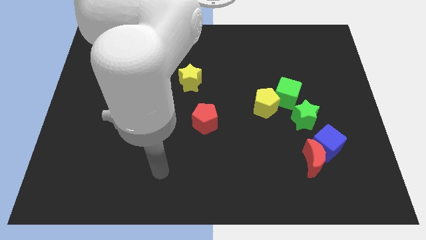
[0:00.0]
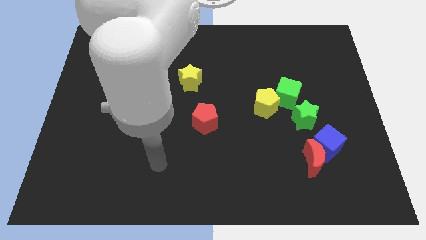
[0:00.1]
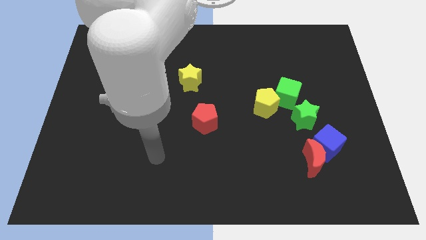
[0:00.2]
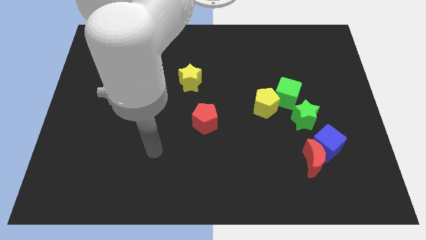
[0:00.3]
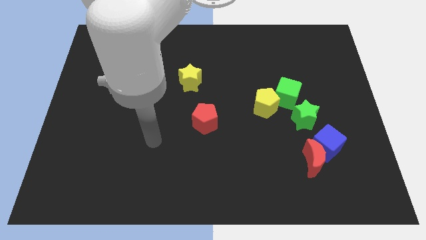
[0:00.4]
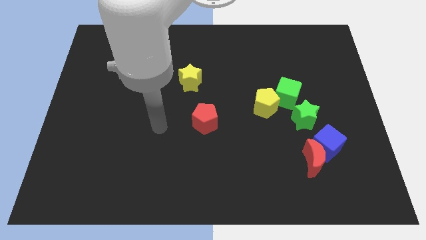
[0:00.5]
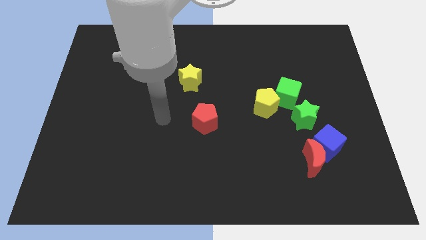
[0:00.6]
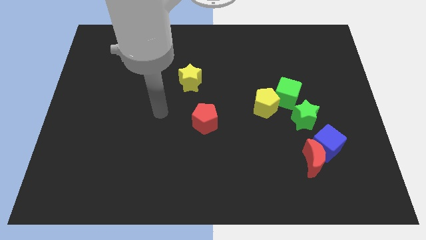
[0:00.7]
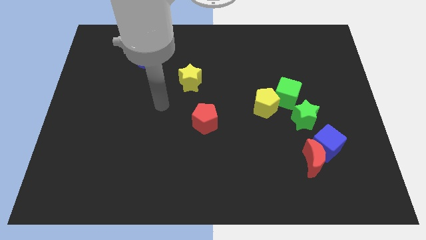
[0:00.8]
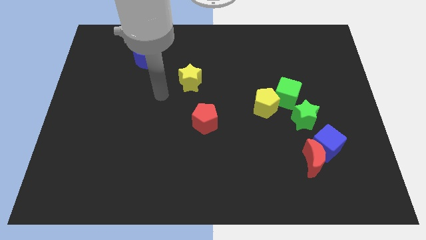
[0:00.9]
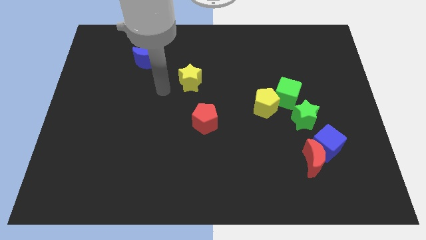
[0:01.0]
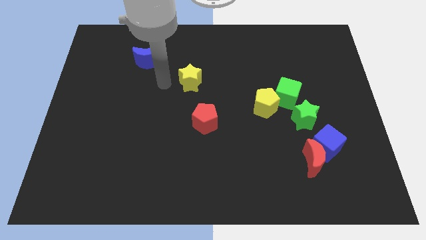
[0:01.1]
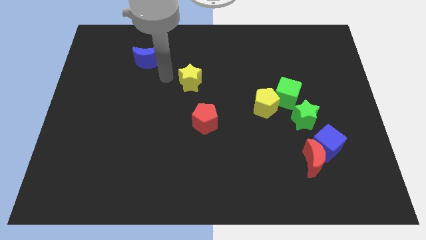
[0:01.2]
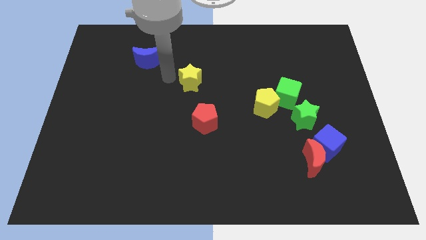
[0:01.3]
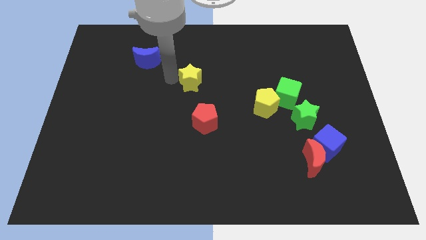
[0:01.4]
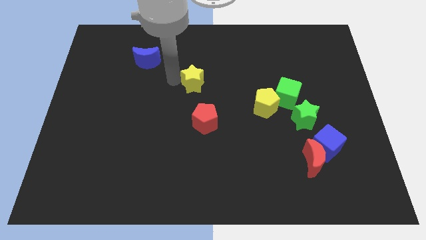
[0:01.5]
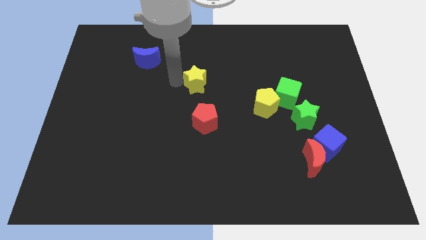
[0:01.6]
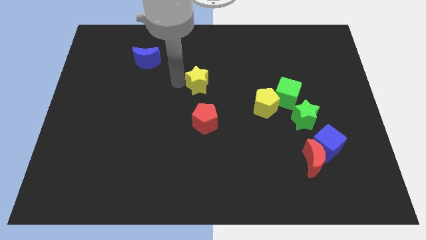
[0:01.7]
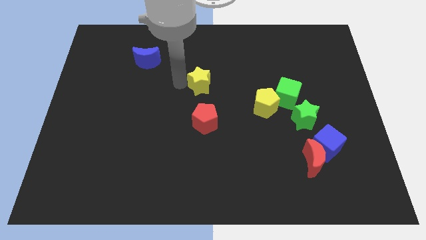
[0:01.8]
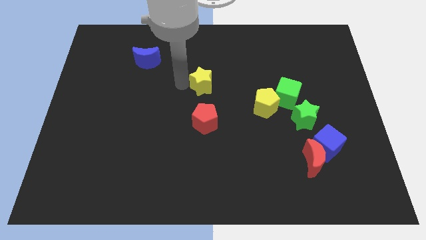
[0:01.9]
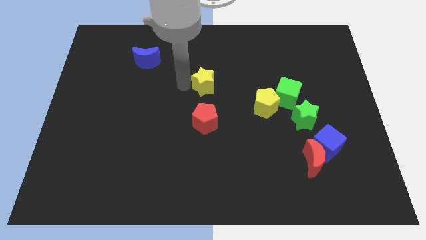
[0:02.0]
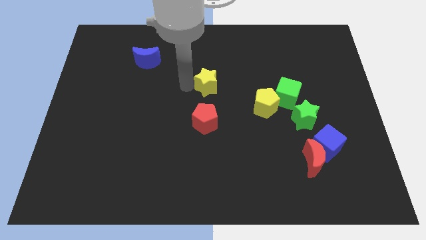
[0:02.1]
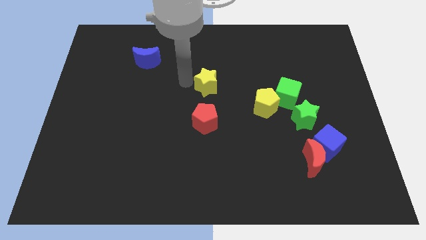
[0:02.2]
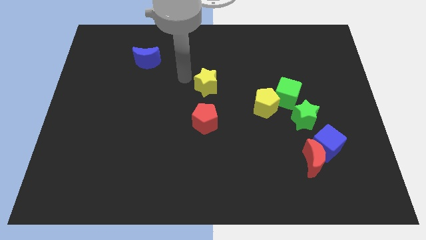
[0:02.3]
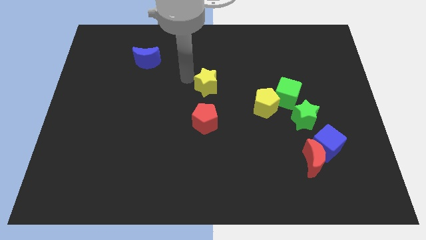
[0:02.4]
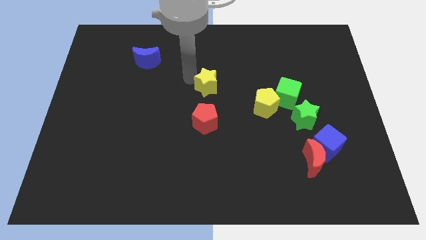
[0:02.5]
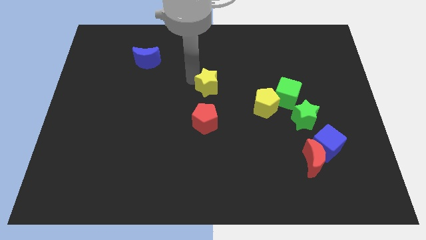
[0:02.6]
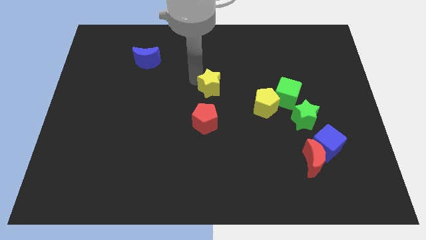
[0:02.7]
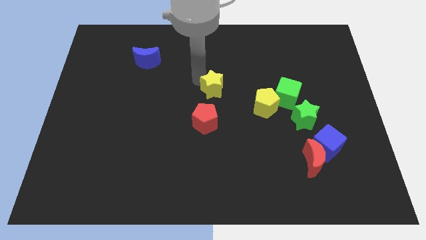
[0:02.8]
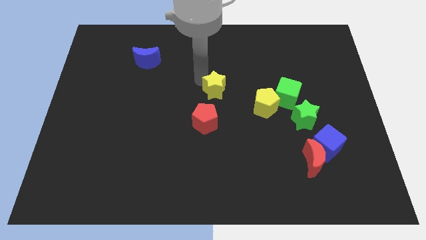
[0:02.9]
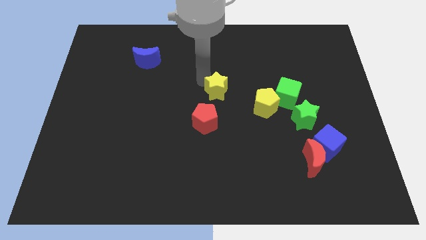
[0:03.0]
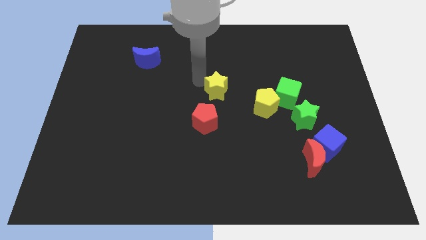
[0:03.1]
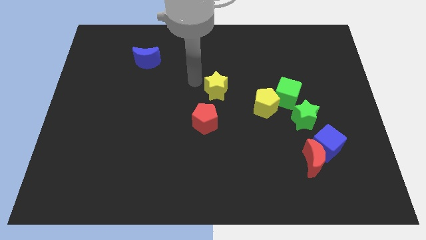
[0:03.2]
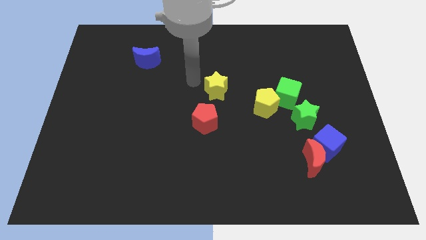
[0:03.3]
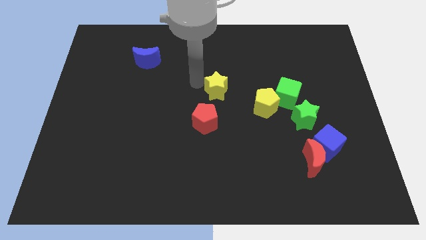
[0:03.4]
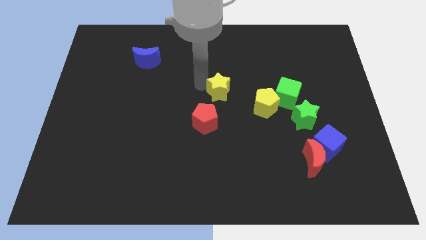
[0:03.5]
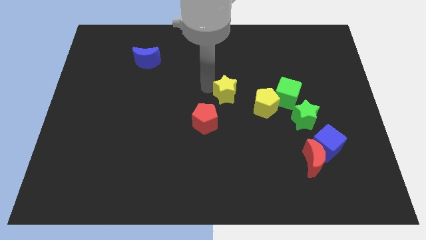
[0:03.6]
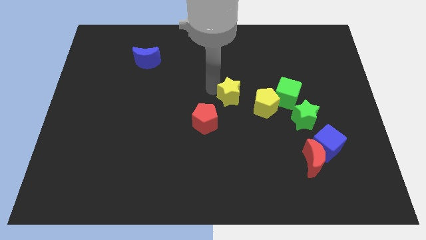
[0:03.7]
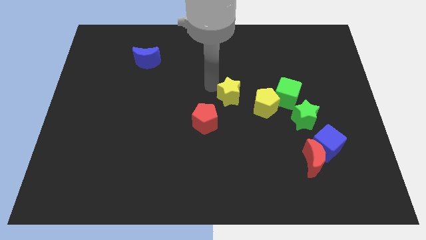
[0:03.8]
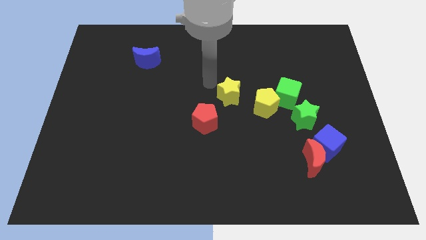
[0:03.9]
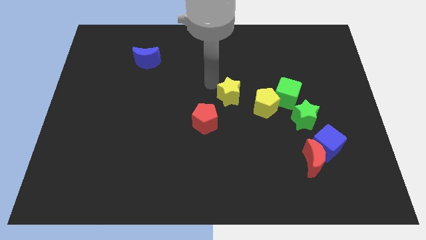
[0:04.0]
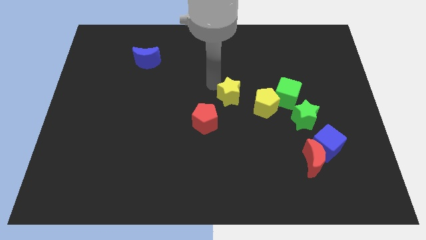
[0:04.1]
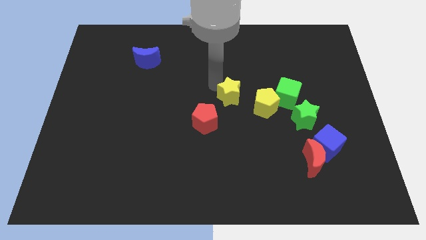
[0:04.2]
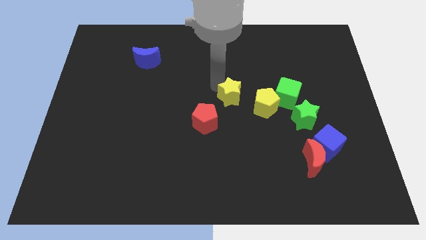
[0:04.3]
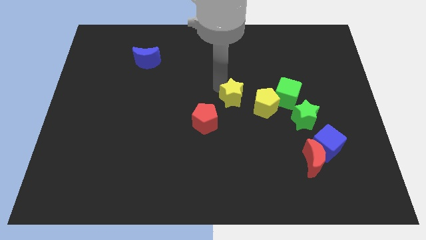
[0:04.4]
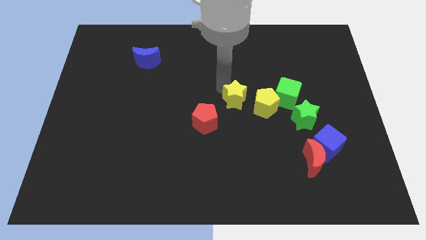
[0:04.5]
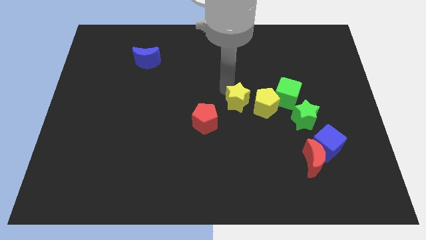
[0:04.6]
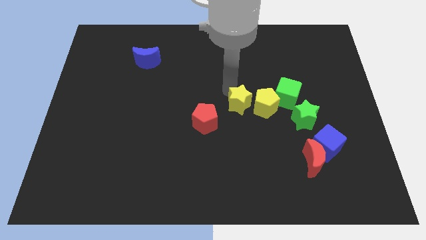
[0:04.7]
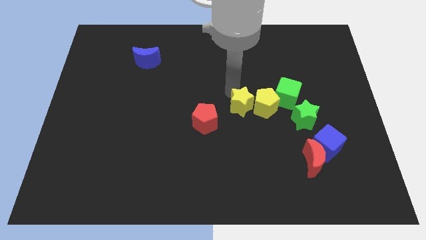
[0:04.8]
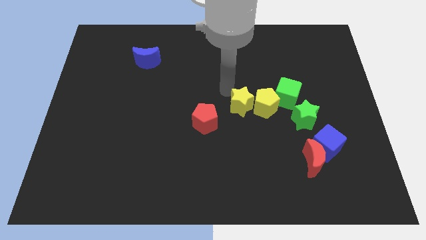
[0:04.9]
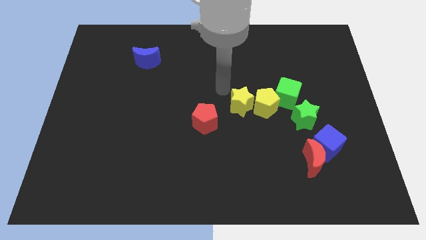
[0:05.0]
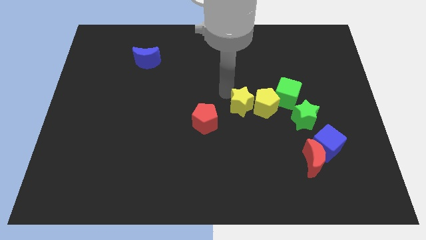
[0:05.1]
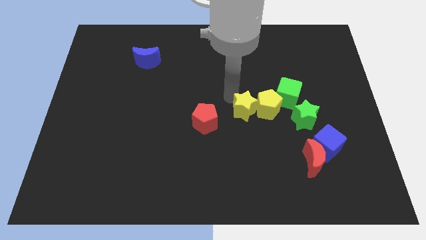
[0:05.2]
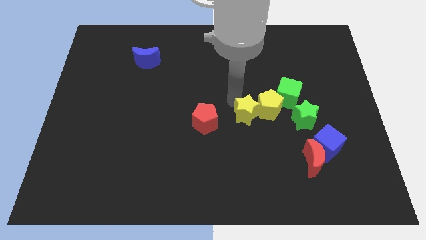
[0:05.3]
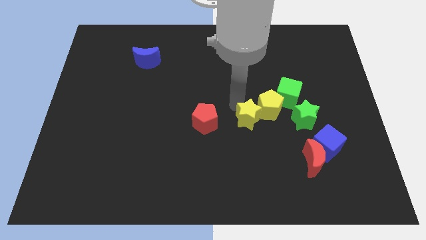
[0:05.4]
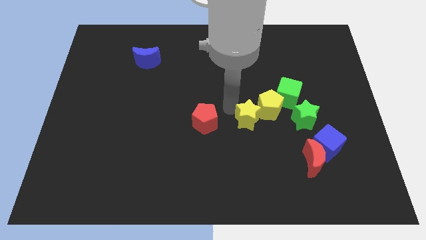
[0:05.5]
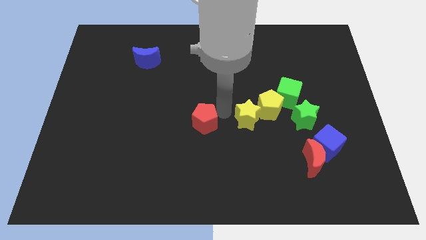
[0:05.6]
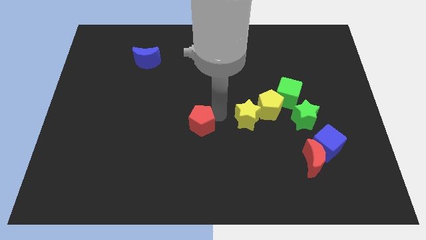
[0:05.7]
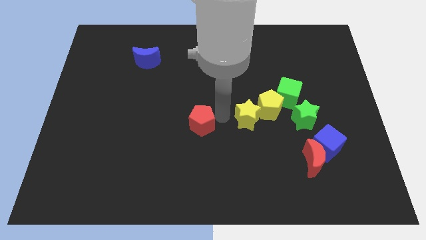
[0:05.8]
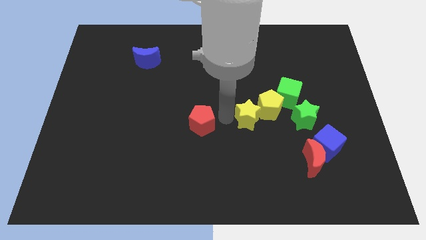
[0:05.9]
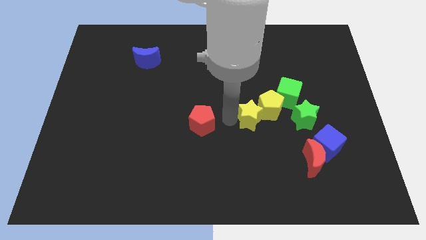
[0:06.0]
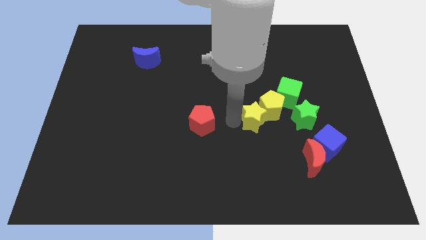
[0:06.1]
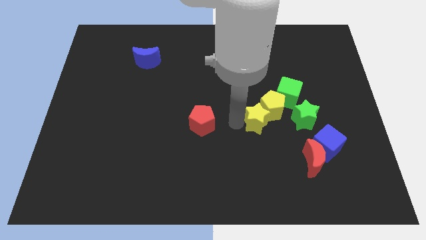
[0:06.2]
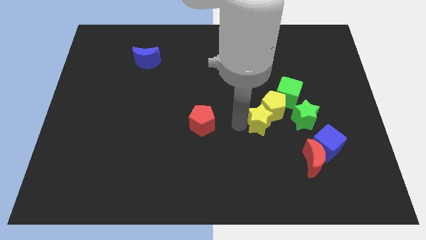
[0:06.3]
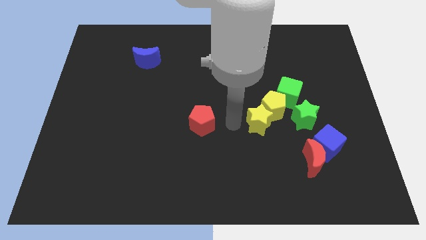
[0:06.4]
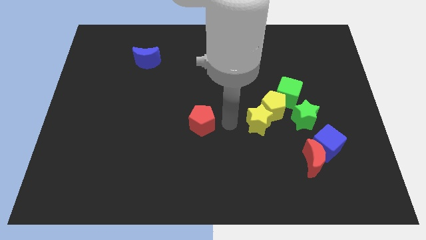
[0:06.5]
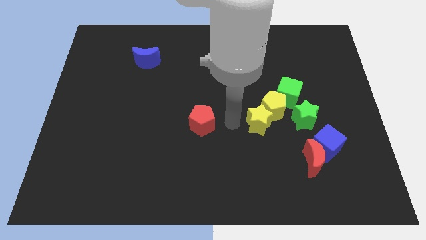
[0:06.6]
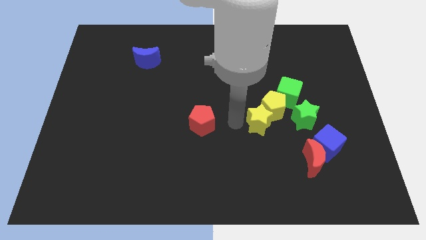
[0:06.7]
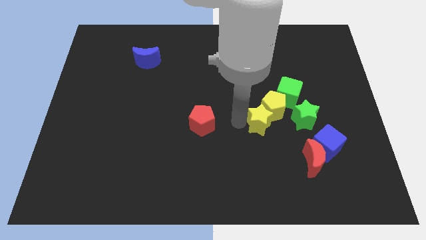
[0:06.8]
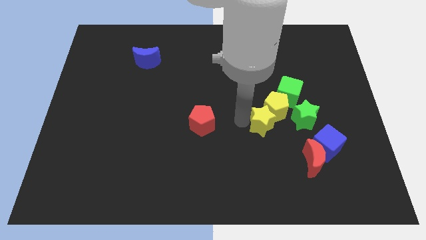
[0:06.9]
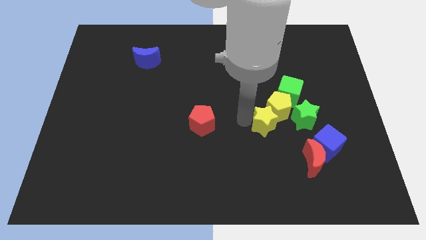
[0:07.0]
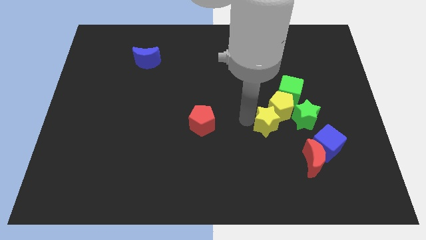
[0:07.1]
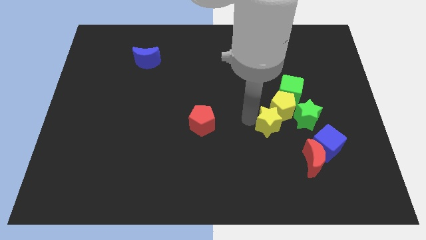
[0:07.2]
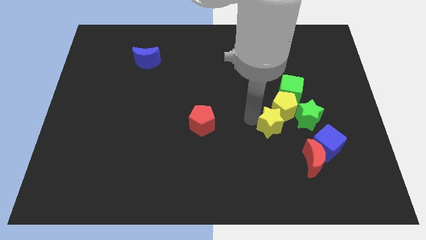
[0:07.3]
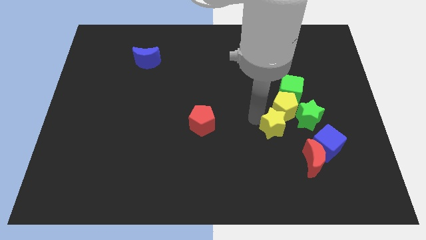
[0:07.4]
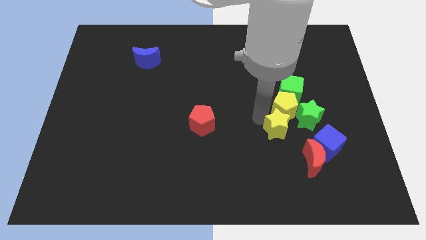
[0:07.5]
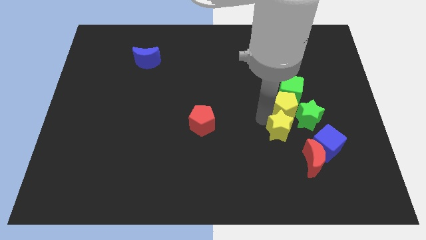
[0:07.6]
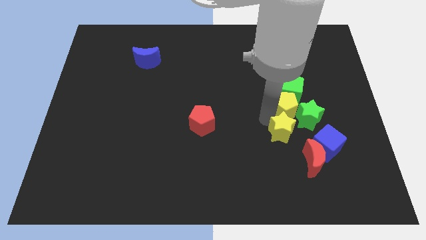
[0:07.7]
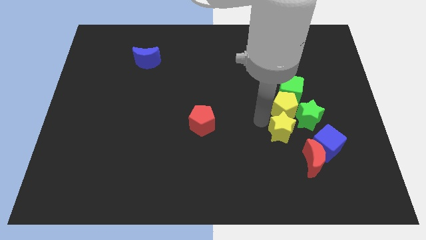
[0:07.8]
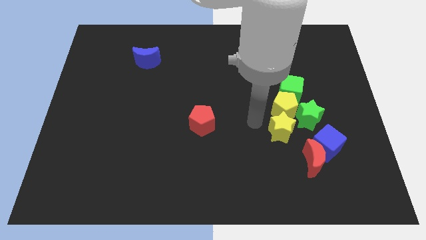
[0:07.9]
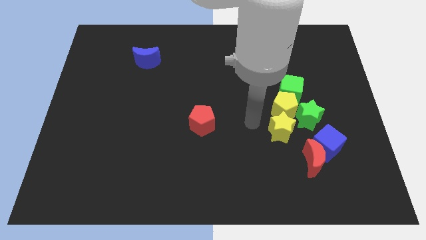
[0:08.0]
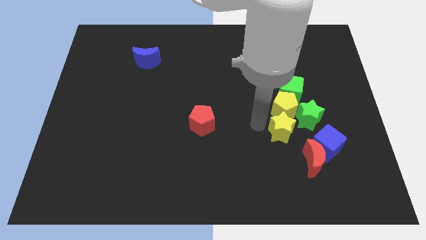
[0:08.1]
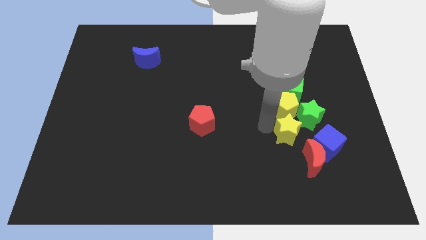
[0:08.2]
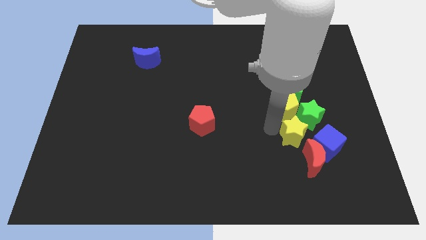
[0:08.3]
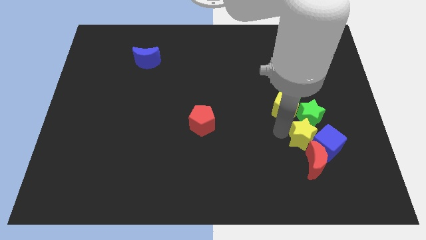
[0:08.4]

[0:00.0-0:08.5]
move the yellow star towards the blue cube
